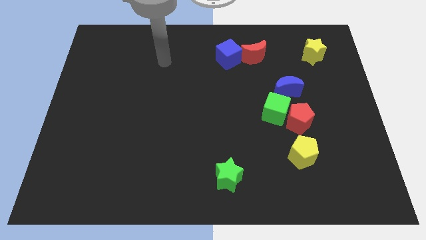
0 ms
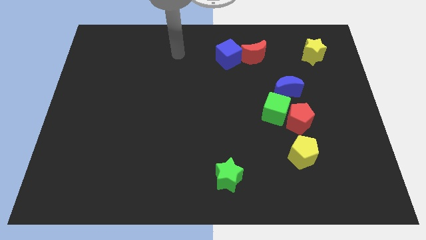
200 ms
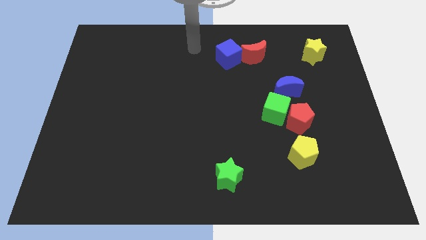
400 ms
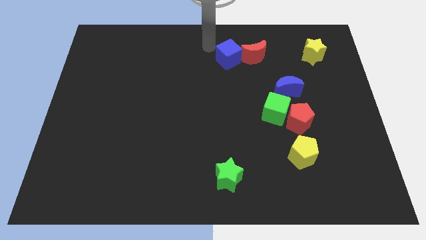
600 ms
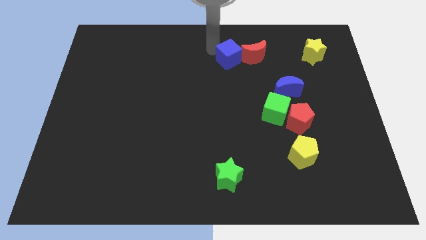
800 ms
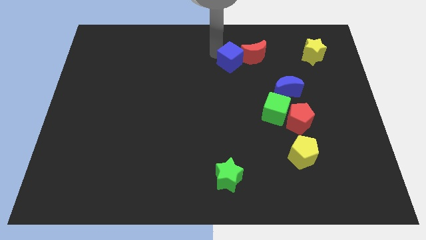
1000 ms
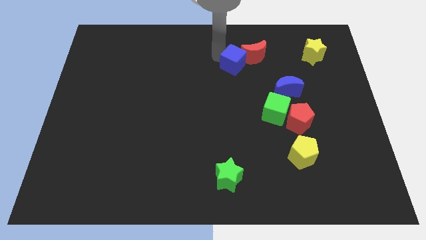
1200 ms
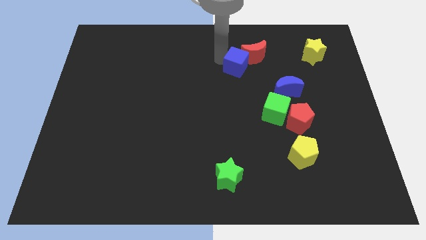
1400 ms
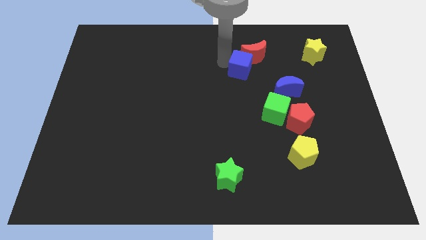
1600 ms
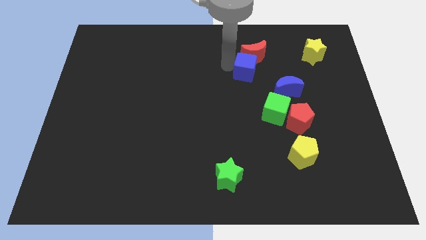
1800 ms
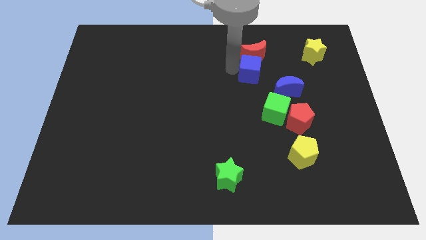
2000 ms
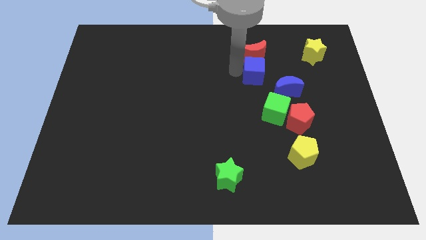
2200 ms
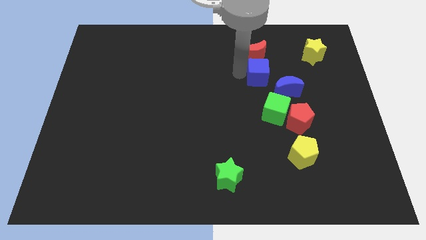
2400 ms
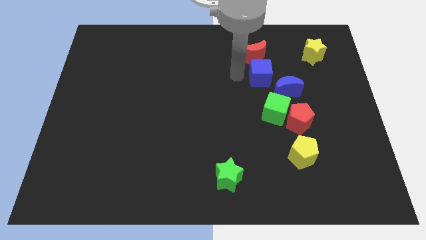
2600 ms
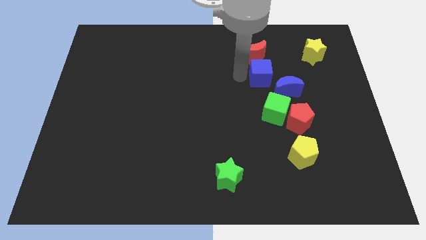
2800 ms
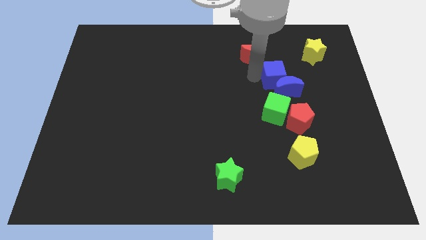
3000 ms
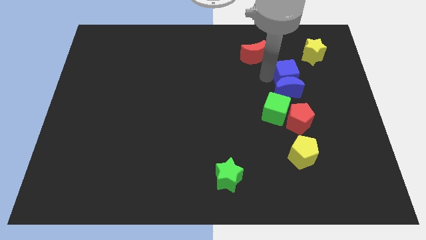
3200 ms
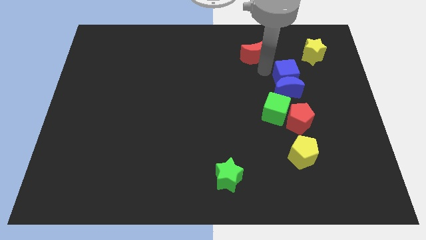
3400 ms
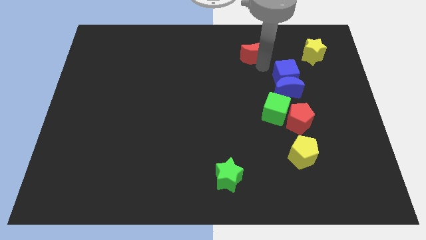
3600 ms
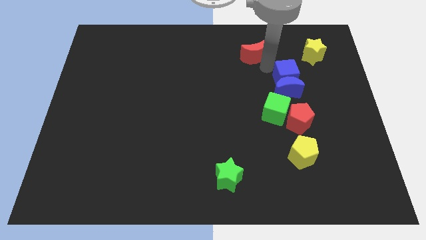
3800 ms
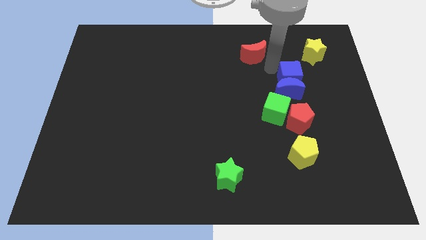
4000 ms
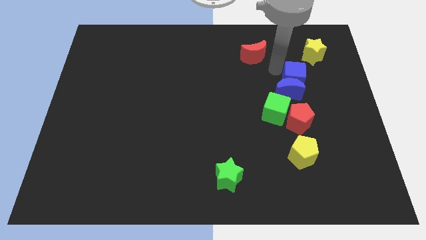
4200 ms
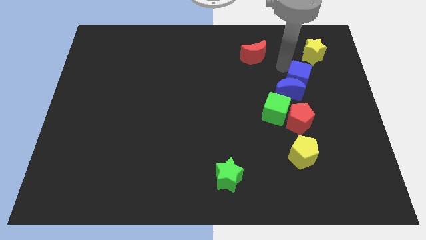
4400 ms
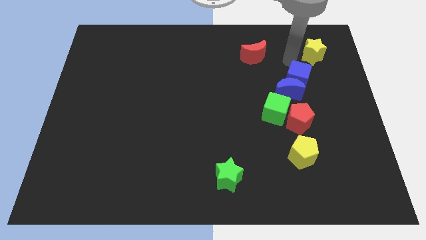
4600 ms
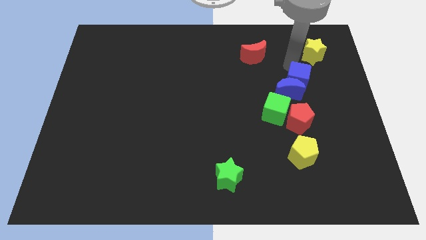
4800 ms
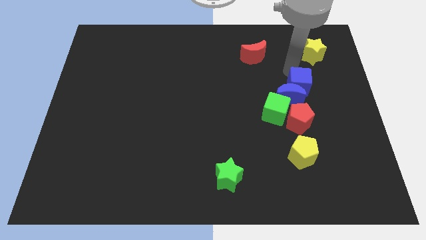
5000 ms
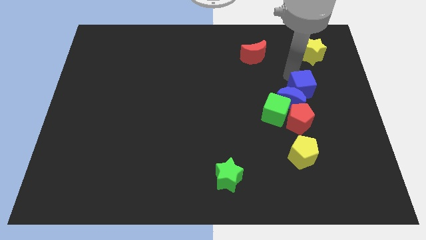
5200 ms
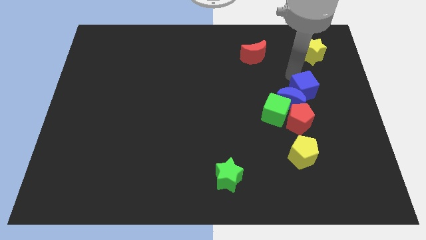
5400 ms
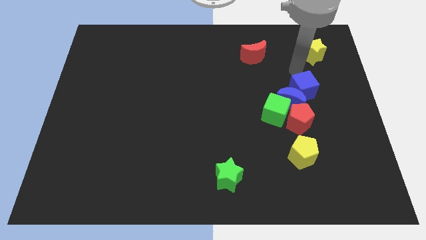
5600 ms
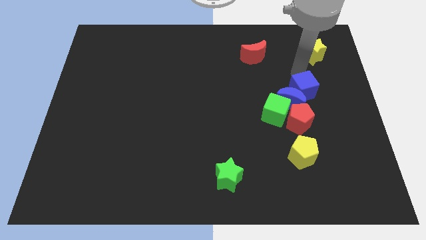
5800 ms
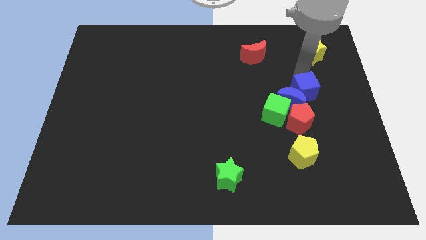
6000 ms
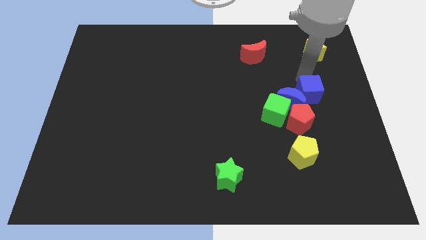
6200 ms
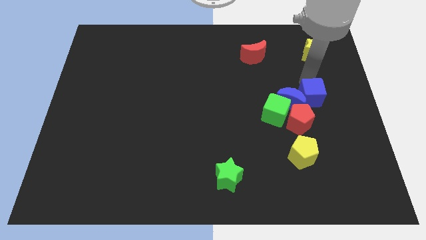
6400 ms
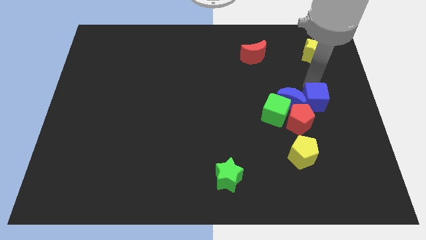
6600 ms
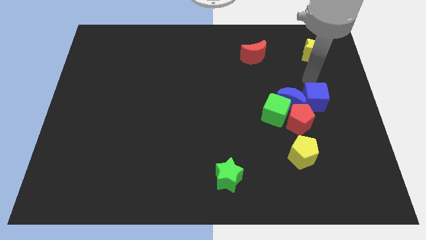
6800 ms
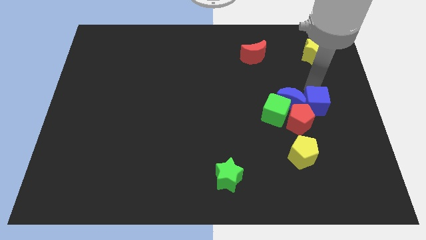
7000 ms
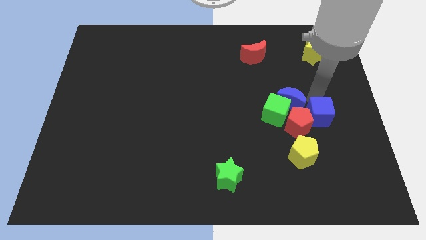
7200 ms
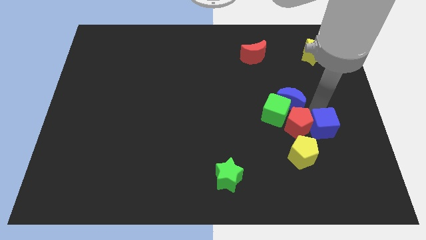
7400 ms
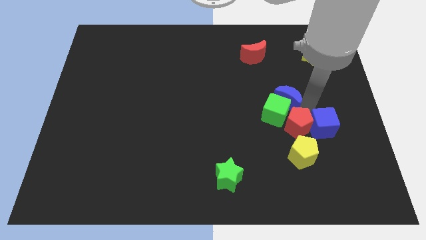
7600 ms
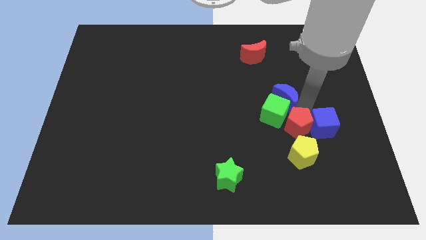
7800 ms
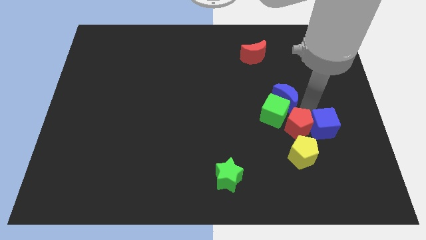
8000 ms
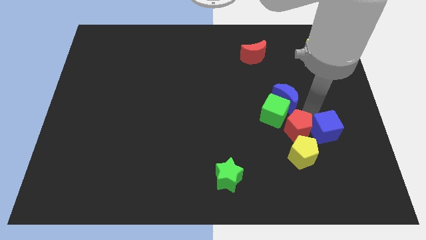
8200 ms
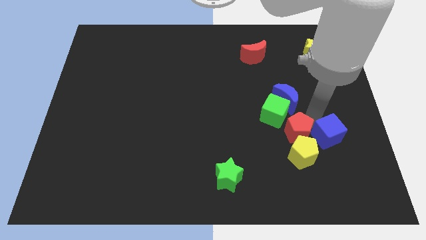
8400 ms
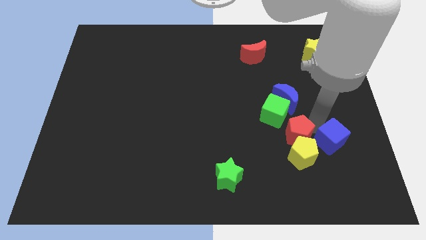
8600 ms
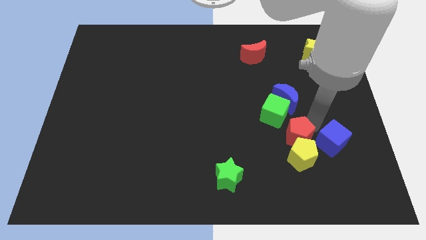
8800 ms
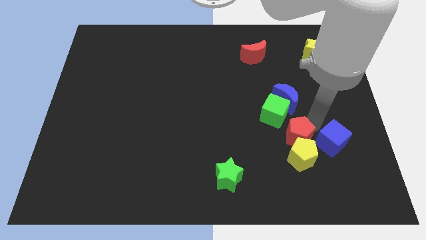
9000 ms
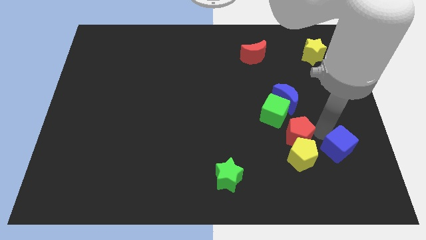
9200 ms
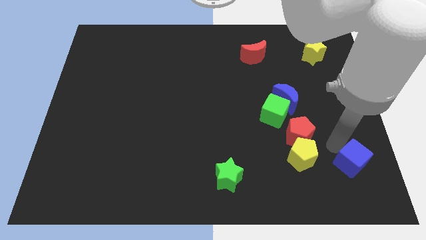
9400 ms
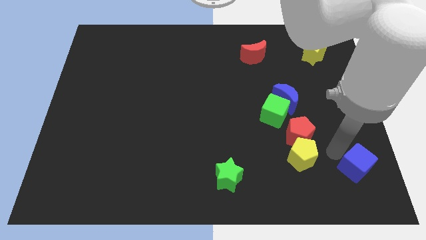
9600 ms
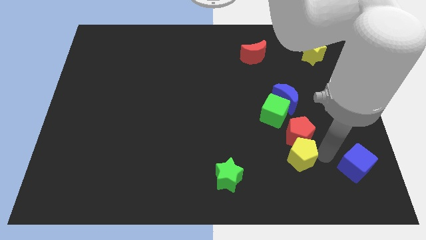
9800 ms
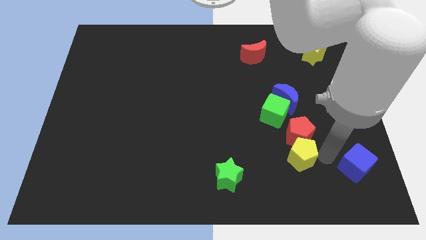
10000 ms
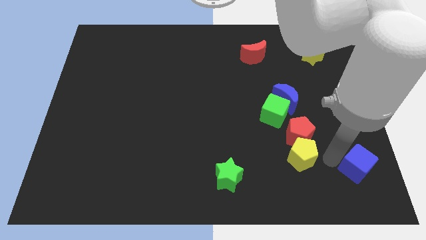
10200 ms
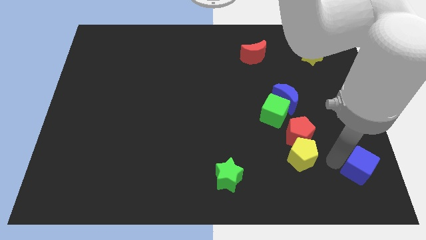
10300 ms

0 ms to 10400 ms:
slide the blue cube to the lower right corner

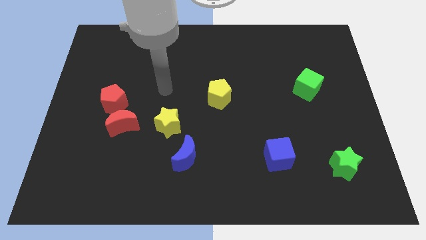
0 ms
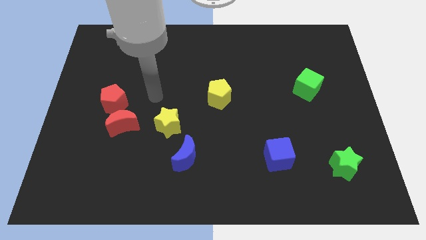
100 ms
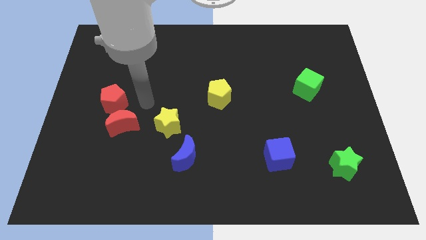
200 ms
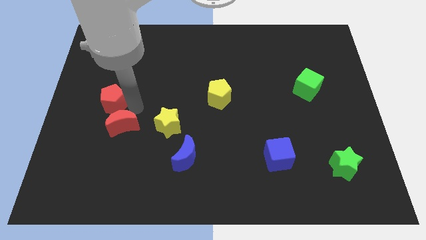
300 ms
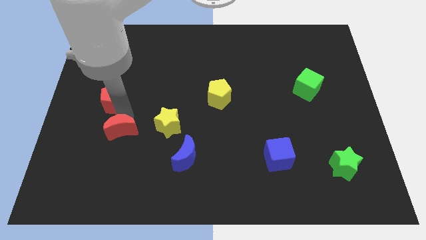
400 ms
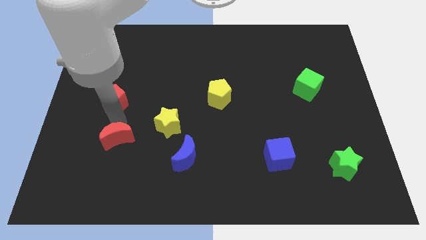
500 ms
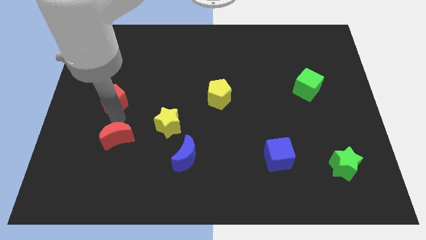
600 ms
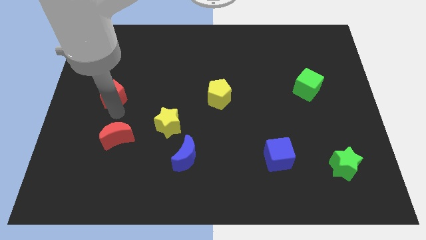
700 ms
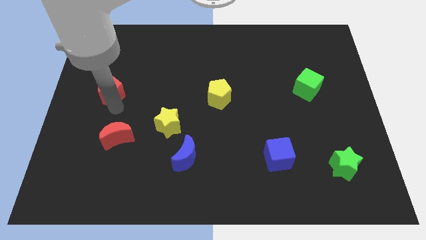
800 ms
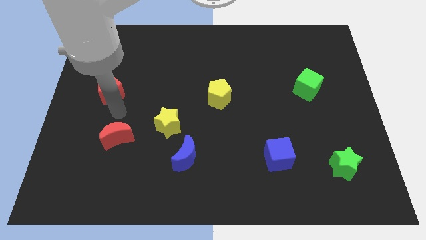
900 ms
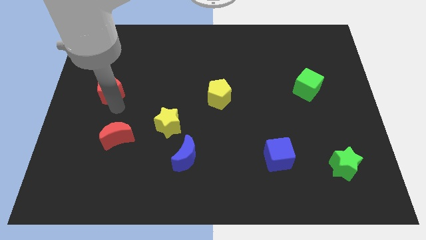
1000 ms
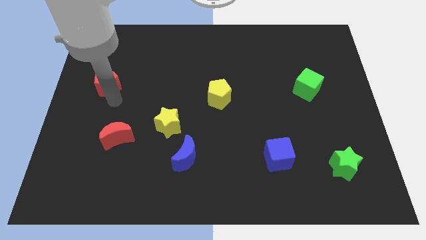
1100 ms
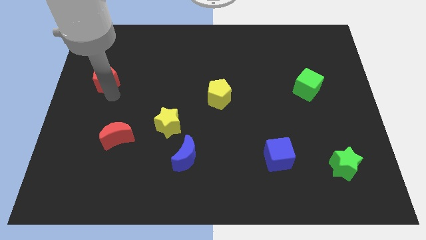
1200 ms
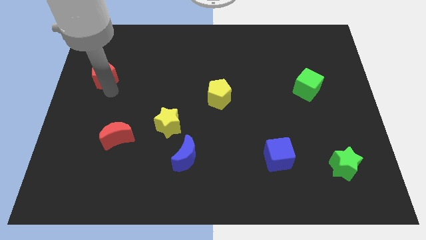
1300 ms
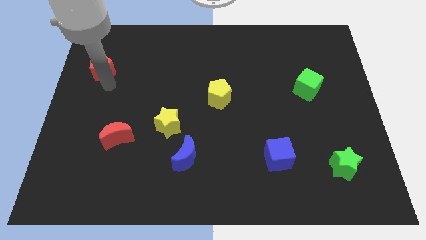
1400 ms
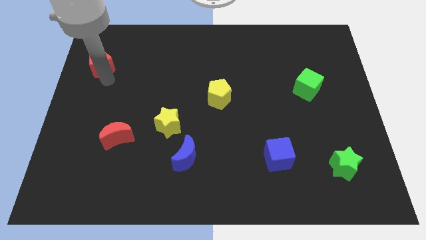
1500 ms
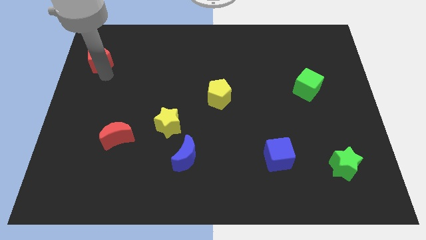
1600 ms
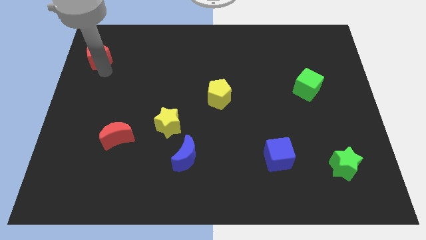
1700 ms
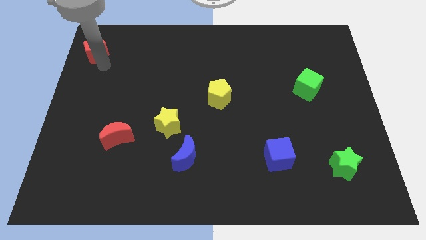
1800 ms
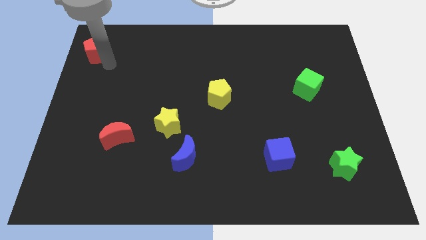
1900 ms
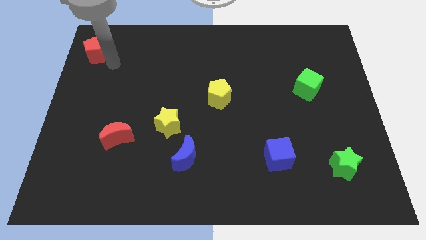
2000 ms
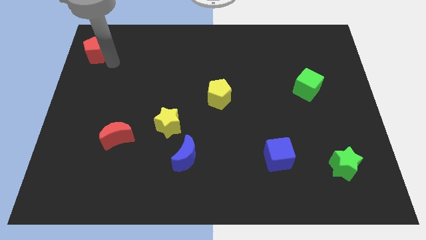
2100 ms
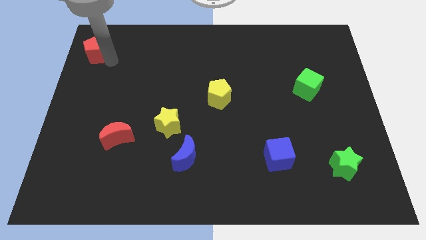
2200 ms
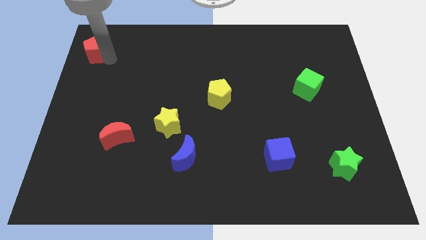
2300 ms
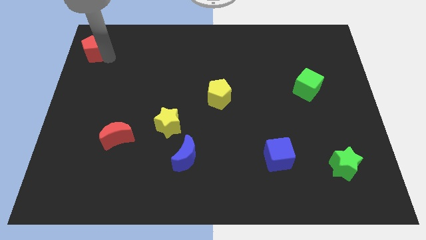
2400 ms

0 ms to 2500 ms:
move the red pentagon to the upper left corner
